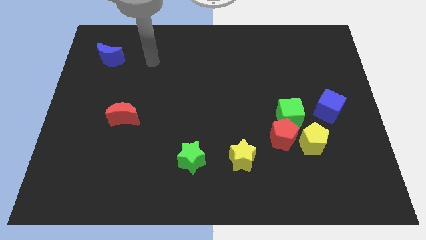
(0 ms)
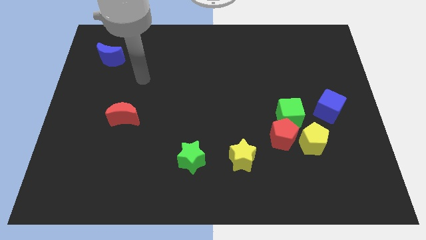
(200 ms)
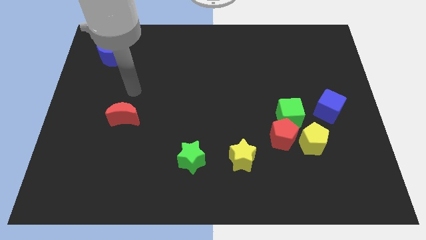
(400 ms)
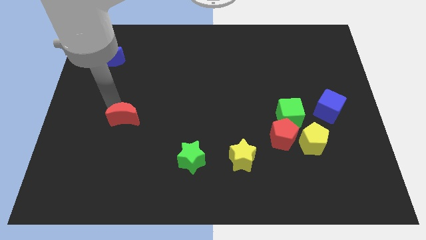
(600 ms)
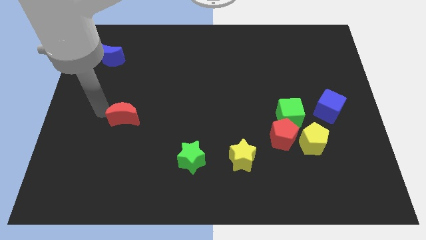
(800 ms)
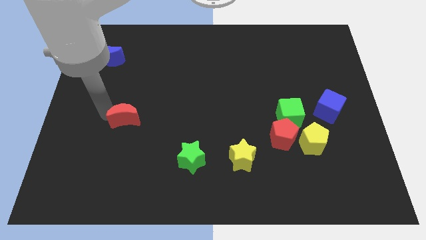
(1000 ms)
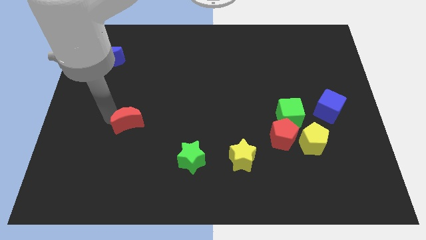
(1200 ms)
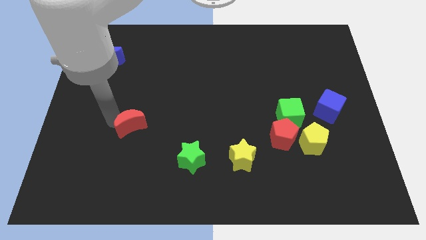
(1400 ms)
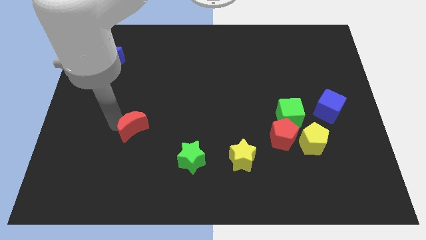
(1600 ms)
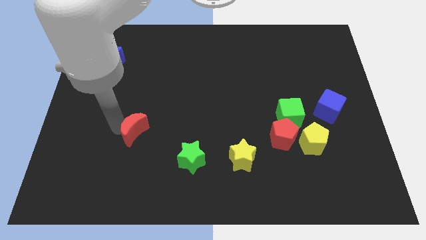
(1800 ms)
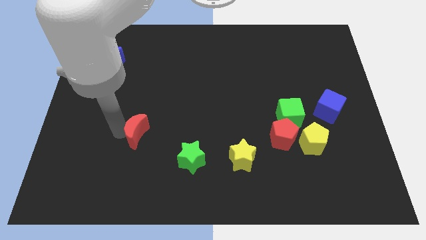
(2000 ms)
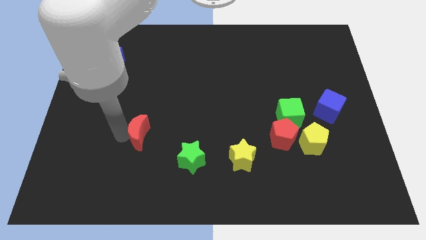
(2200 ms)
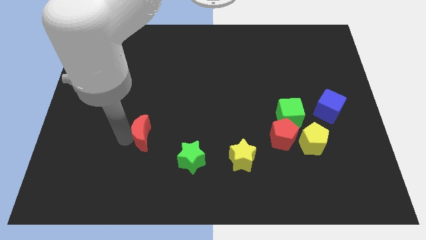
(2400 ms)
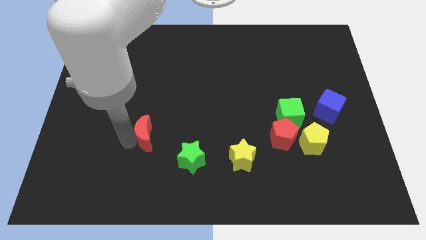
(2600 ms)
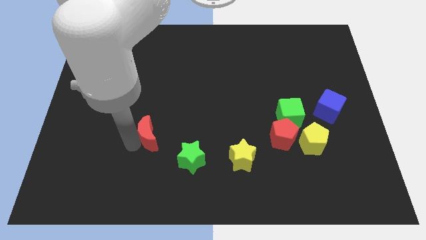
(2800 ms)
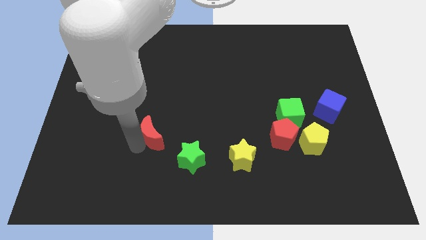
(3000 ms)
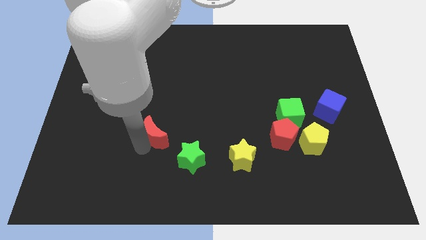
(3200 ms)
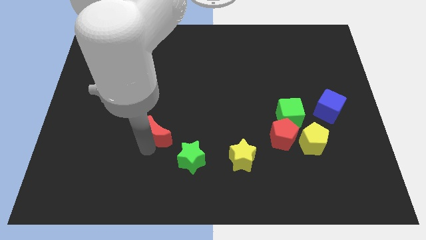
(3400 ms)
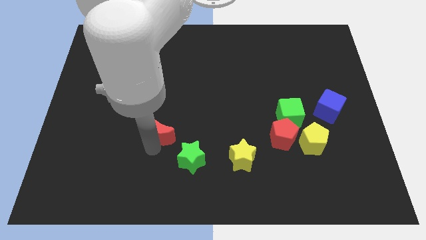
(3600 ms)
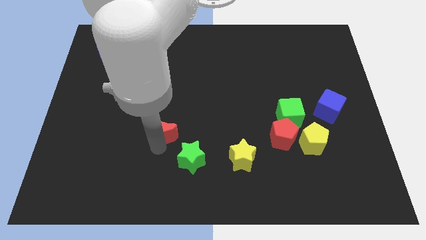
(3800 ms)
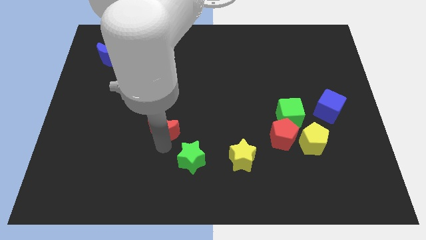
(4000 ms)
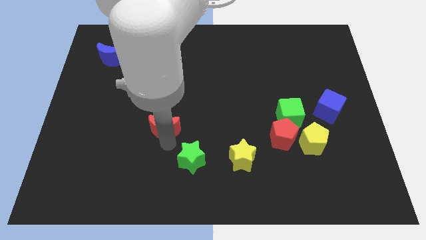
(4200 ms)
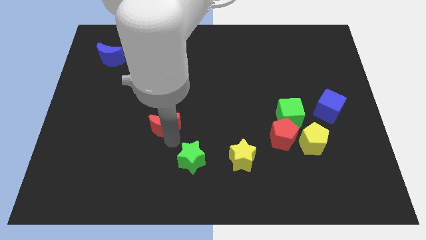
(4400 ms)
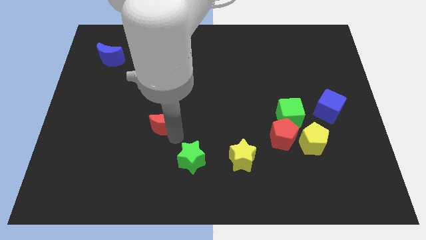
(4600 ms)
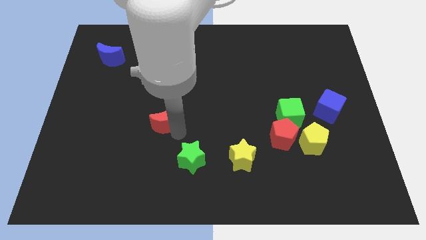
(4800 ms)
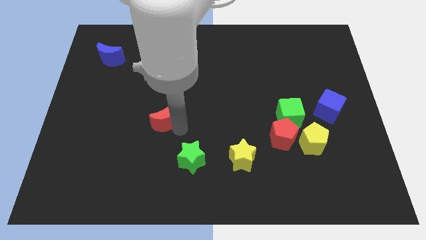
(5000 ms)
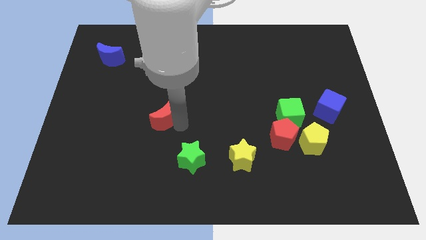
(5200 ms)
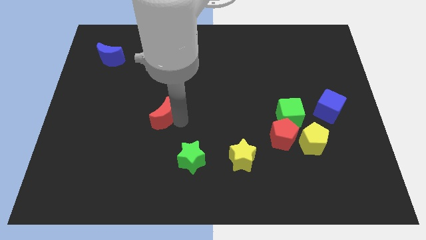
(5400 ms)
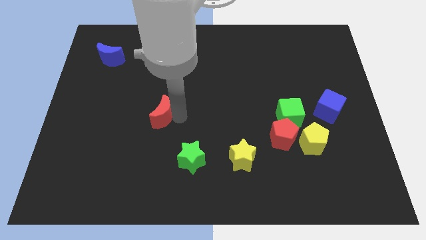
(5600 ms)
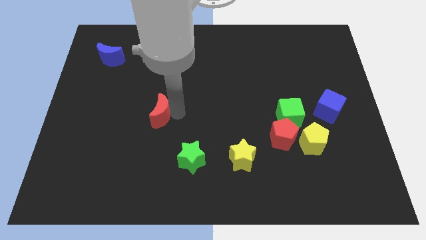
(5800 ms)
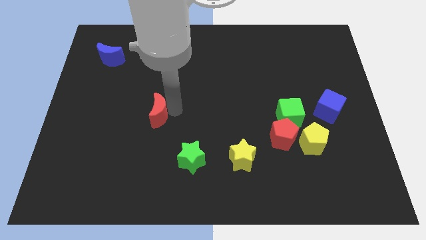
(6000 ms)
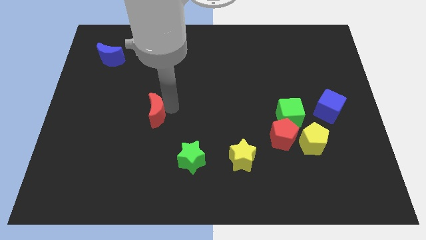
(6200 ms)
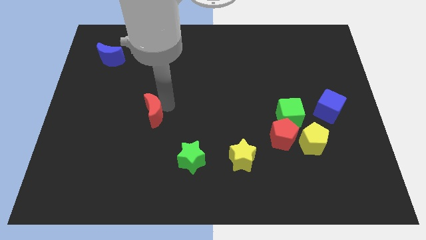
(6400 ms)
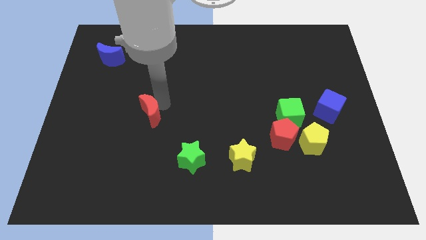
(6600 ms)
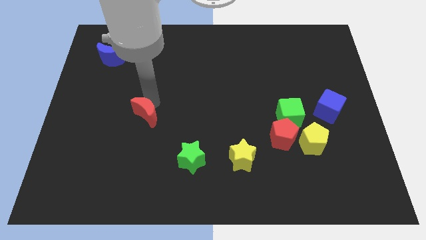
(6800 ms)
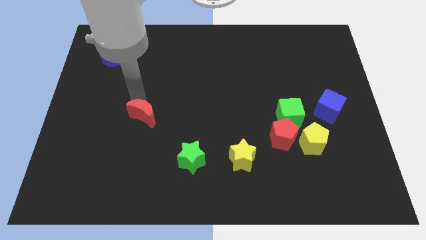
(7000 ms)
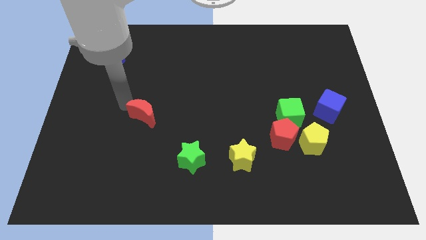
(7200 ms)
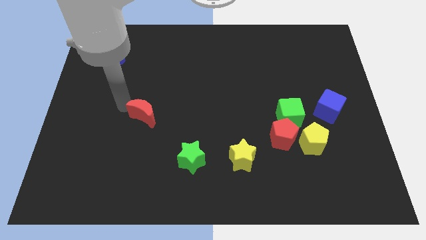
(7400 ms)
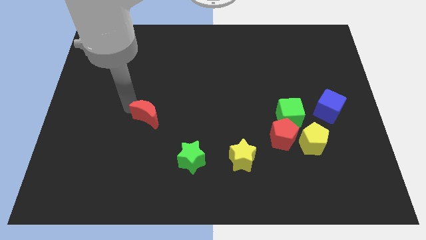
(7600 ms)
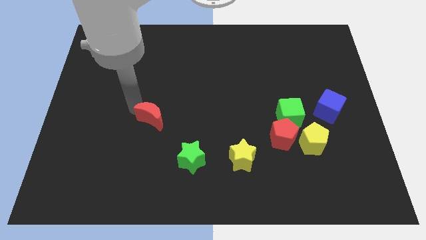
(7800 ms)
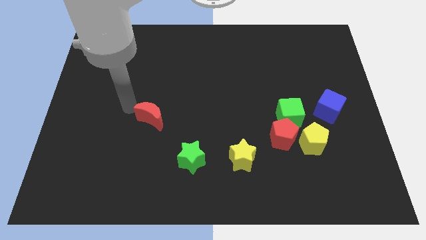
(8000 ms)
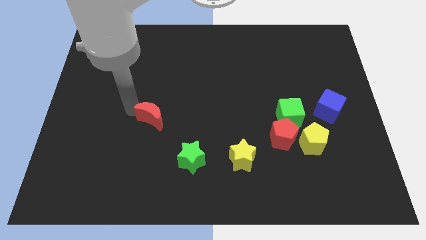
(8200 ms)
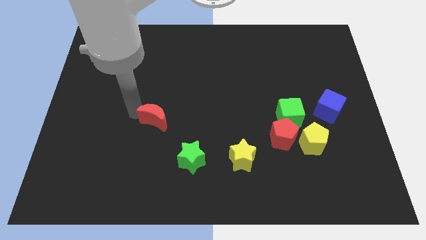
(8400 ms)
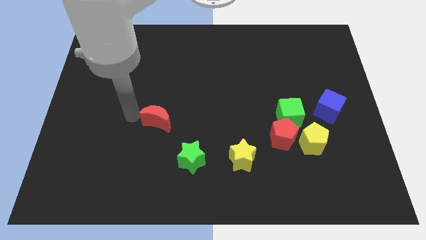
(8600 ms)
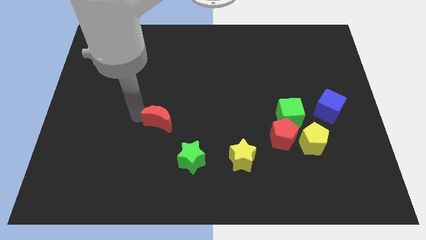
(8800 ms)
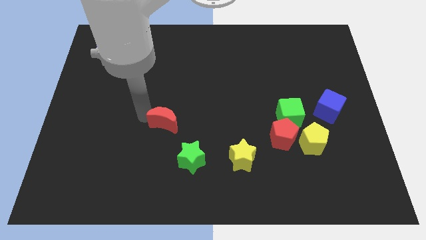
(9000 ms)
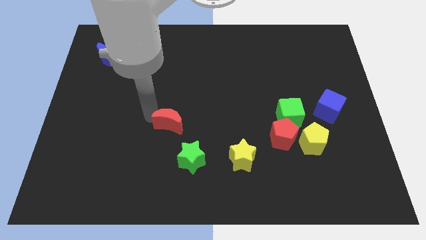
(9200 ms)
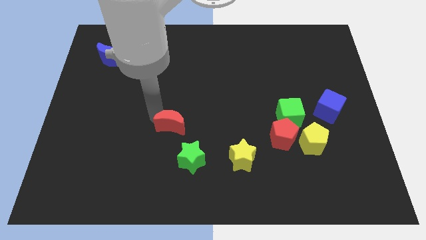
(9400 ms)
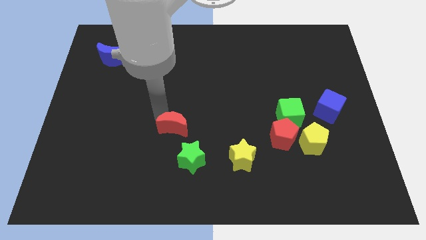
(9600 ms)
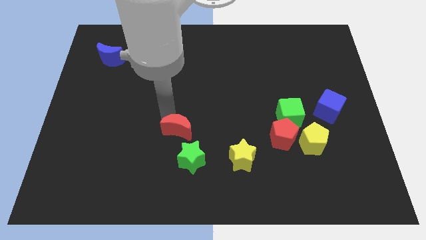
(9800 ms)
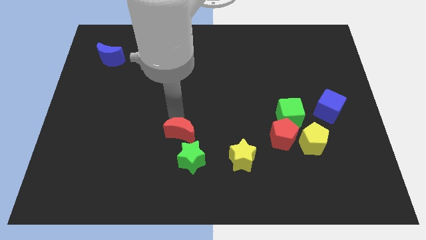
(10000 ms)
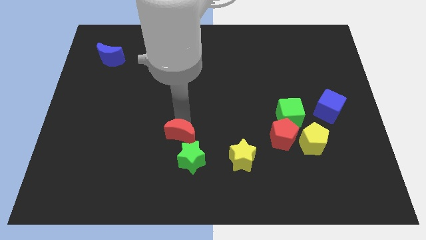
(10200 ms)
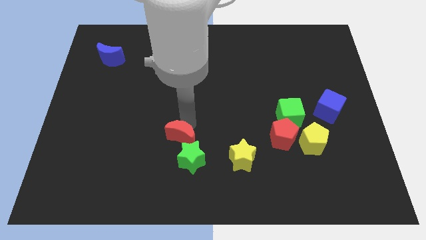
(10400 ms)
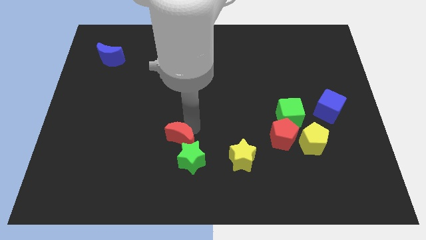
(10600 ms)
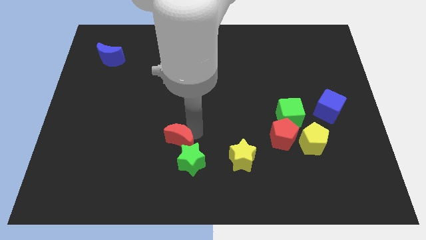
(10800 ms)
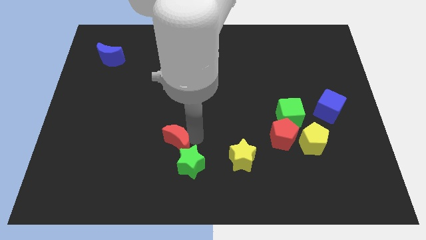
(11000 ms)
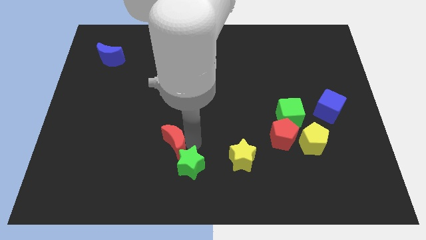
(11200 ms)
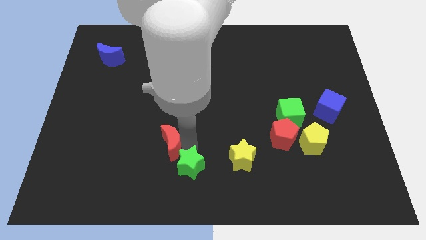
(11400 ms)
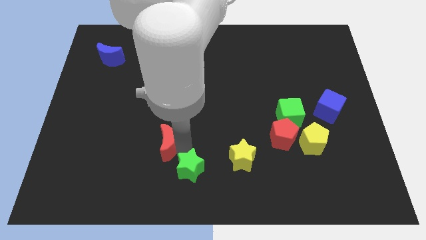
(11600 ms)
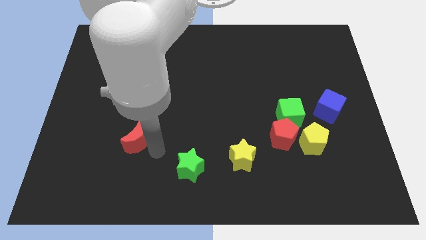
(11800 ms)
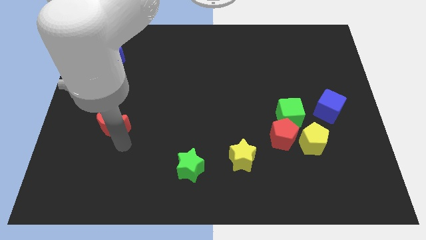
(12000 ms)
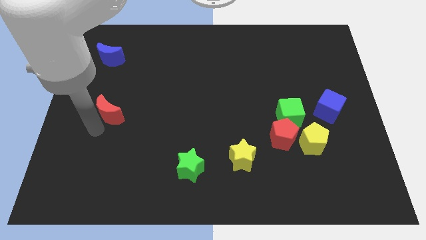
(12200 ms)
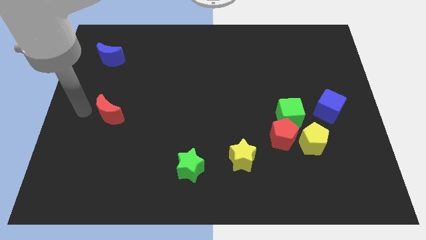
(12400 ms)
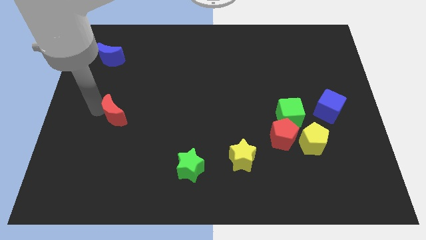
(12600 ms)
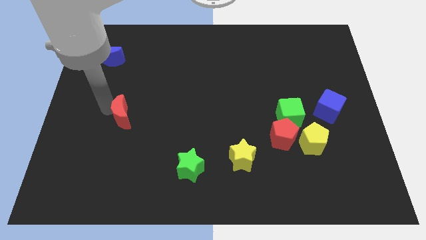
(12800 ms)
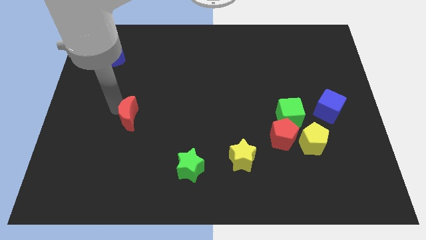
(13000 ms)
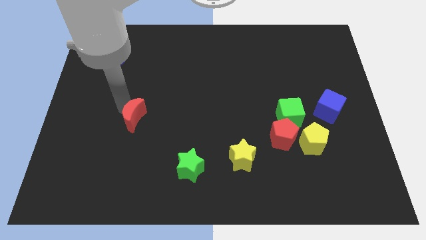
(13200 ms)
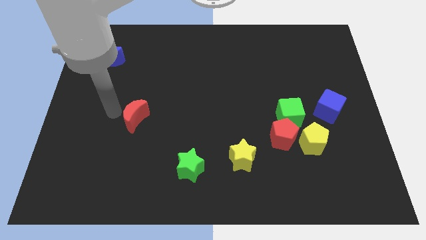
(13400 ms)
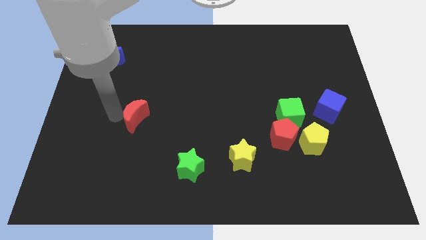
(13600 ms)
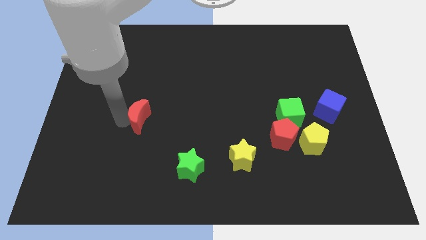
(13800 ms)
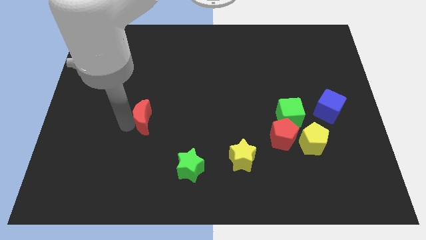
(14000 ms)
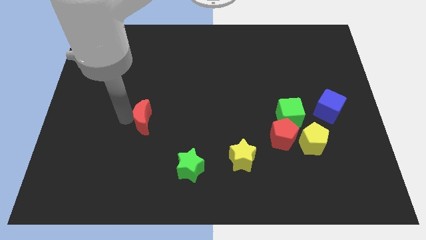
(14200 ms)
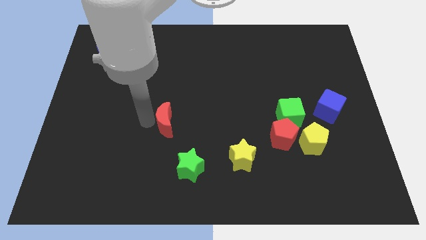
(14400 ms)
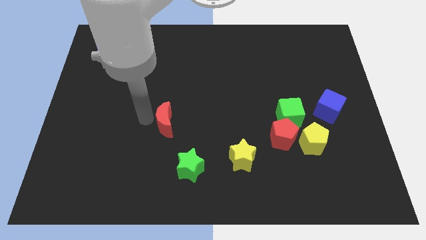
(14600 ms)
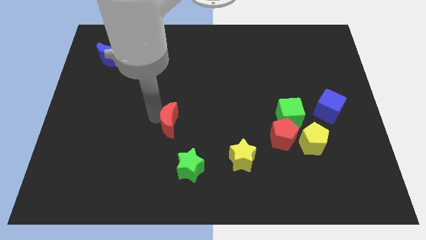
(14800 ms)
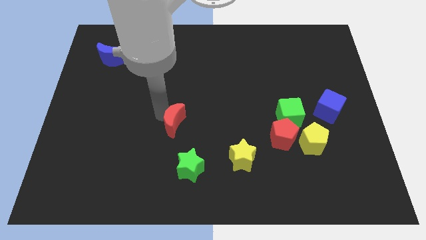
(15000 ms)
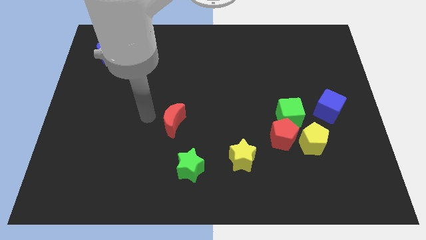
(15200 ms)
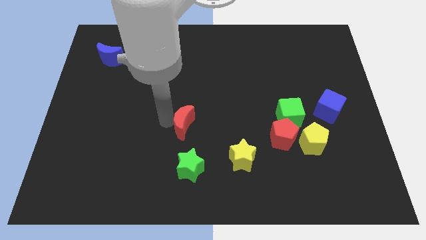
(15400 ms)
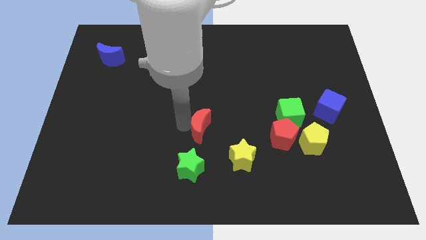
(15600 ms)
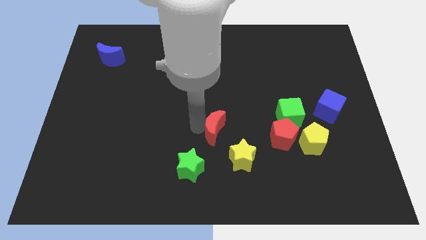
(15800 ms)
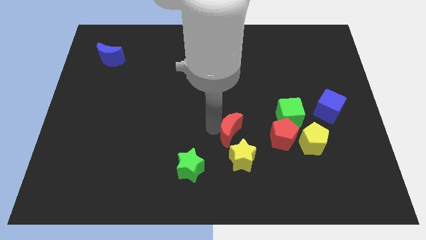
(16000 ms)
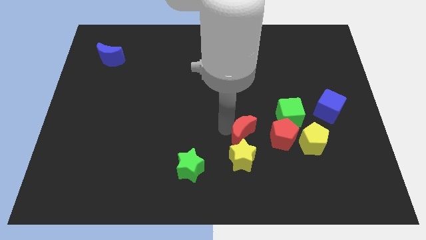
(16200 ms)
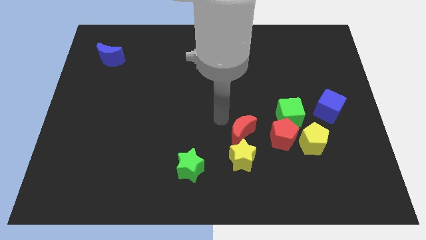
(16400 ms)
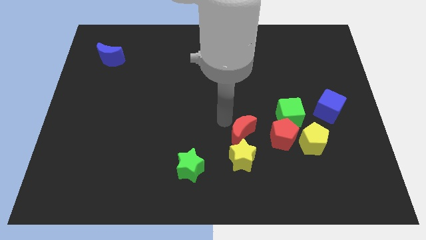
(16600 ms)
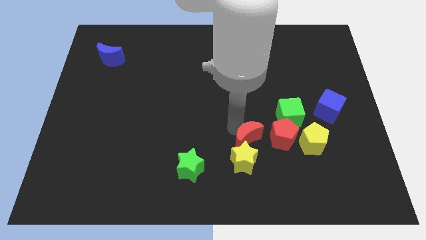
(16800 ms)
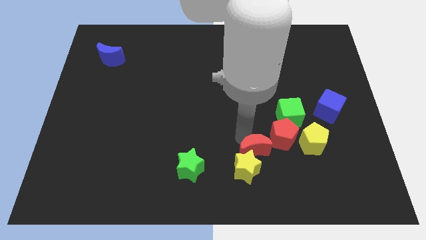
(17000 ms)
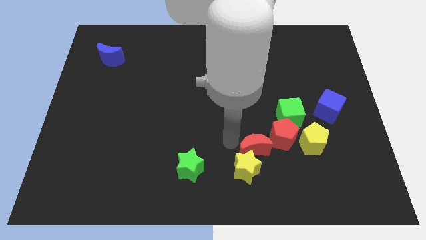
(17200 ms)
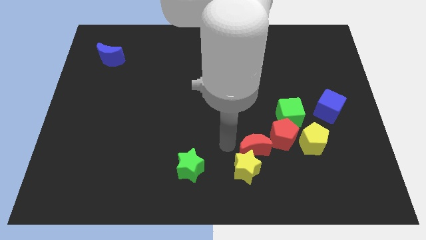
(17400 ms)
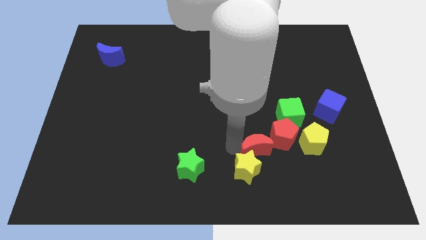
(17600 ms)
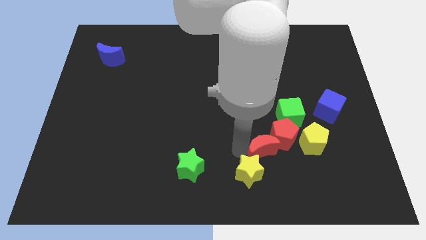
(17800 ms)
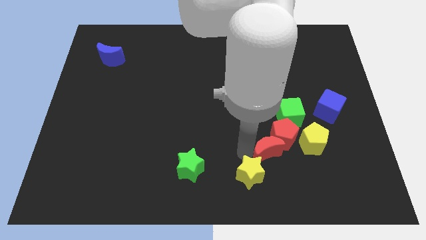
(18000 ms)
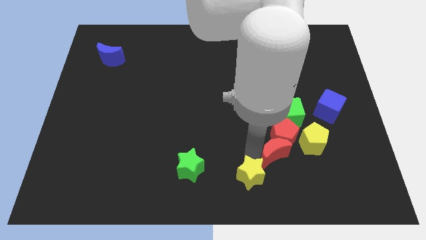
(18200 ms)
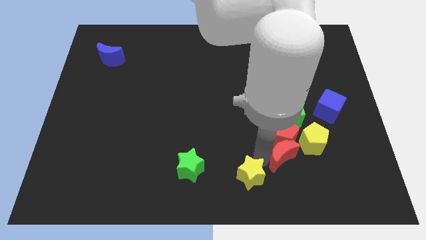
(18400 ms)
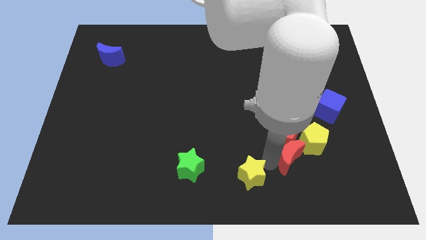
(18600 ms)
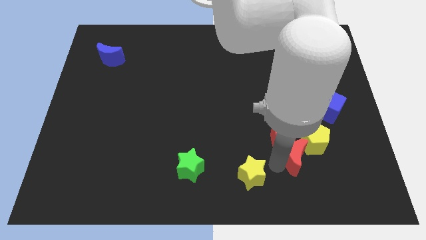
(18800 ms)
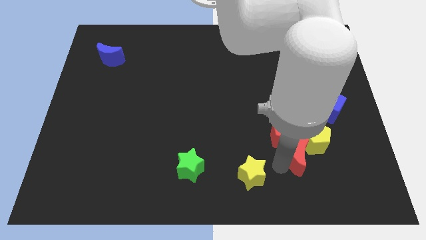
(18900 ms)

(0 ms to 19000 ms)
slide the red moon close to the yellow pentagon
